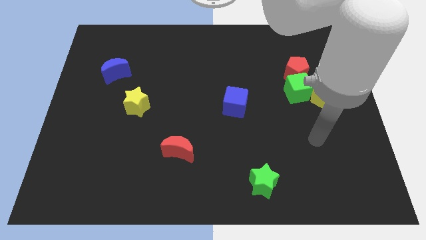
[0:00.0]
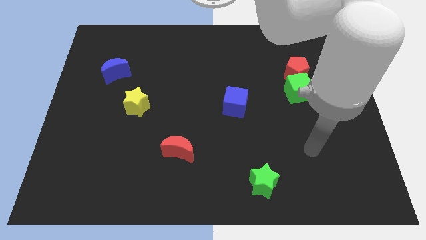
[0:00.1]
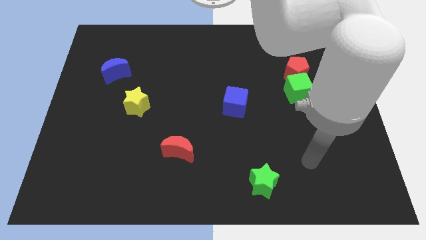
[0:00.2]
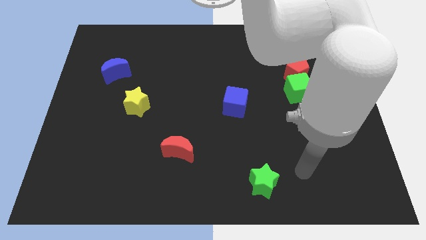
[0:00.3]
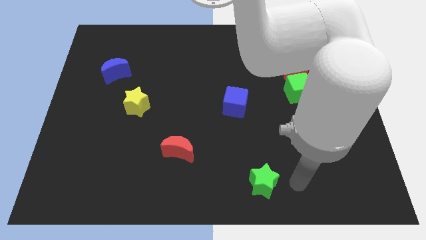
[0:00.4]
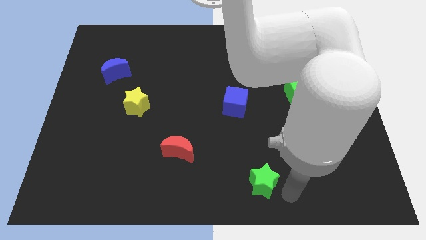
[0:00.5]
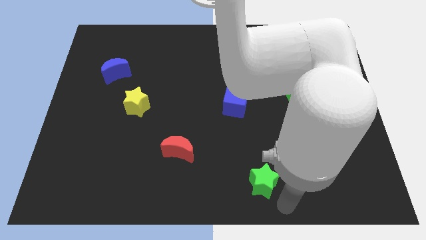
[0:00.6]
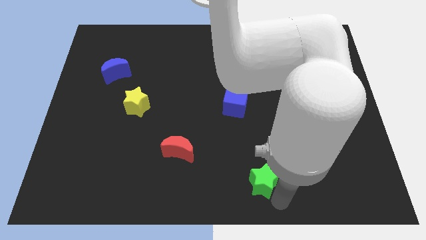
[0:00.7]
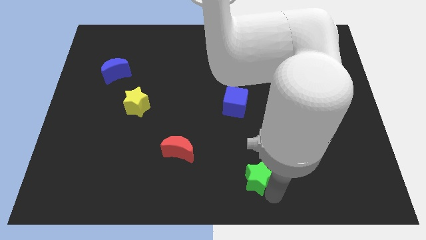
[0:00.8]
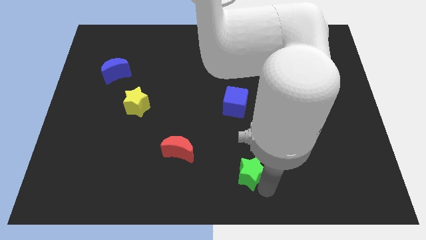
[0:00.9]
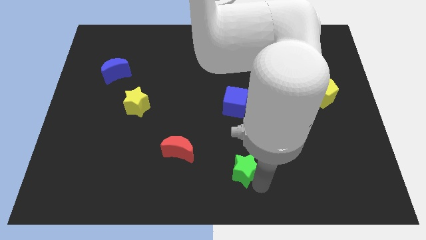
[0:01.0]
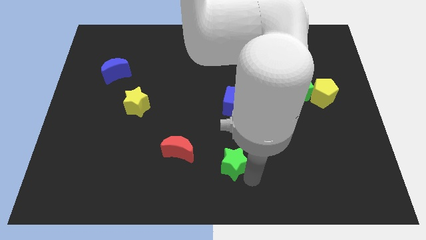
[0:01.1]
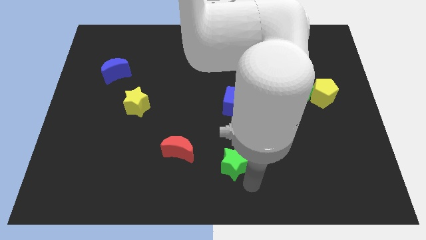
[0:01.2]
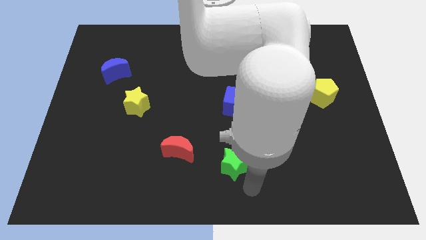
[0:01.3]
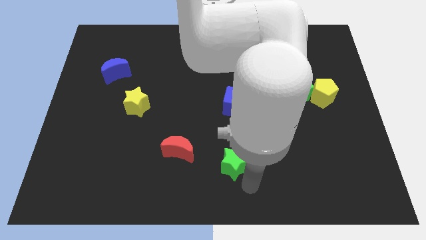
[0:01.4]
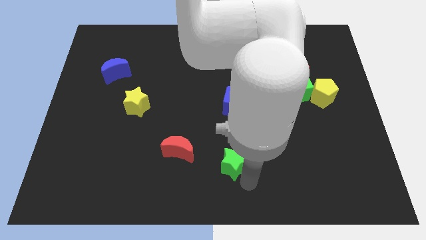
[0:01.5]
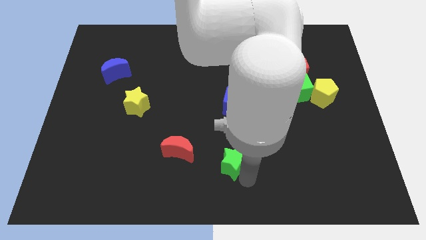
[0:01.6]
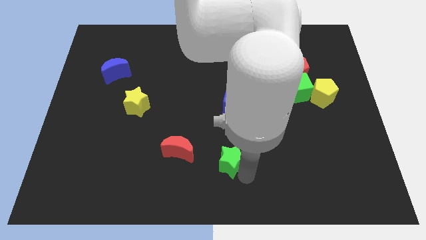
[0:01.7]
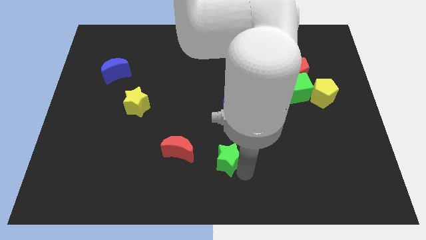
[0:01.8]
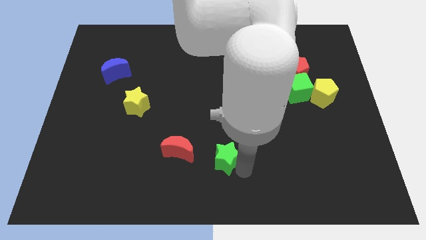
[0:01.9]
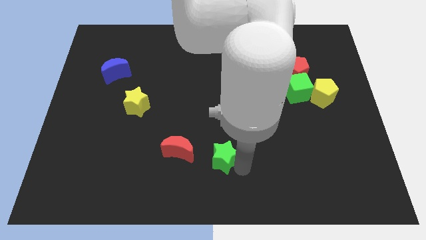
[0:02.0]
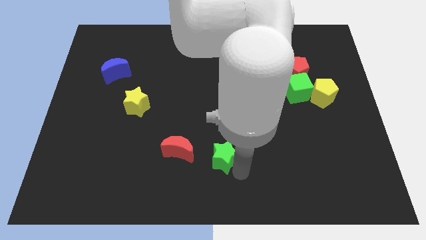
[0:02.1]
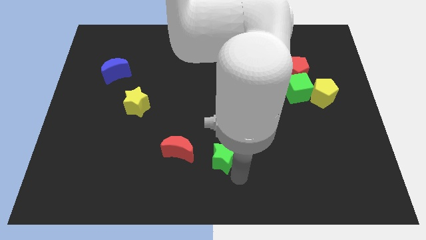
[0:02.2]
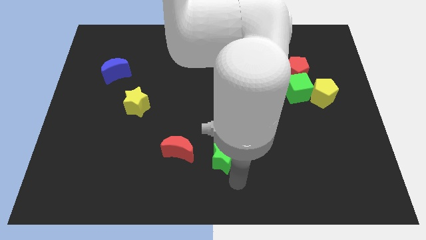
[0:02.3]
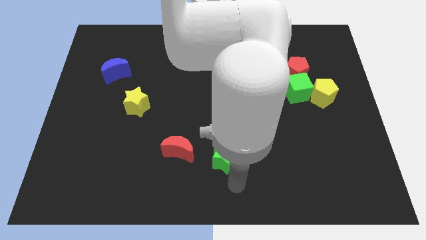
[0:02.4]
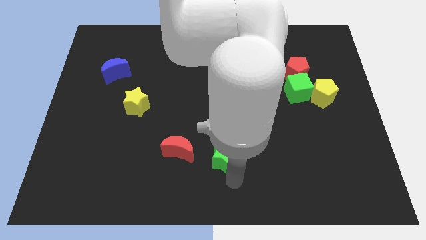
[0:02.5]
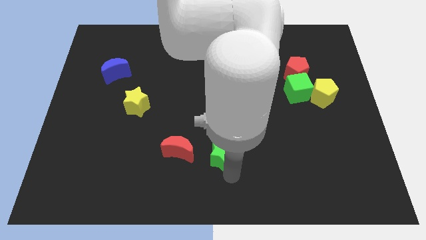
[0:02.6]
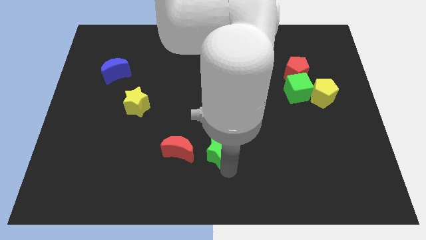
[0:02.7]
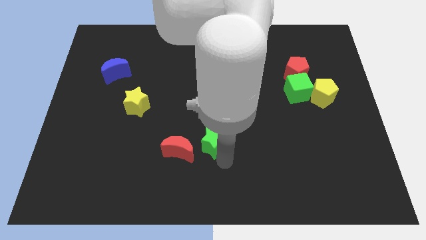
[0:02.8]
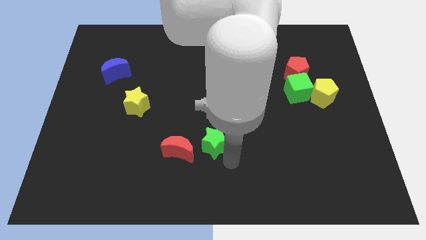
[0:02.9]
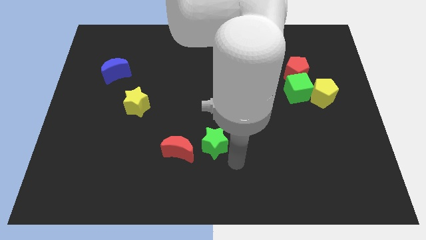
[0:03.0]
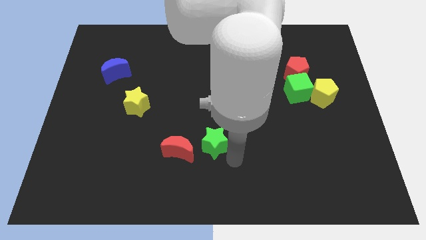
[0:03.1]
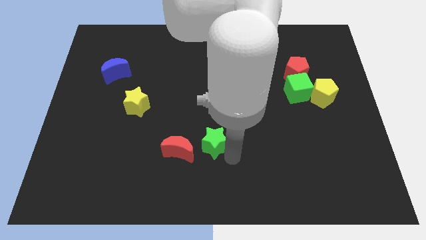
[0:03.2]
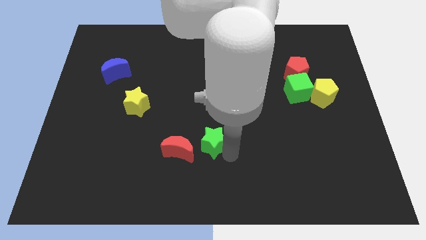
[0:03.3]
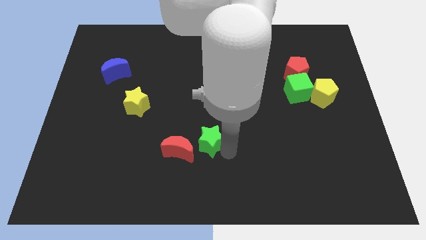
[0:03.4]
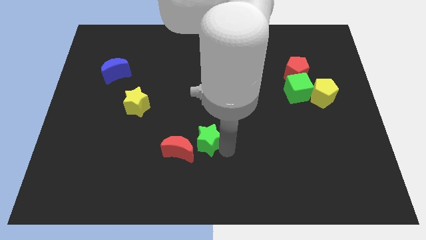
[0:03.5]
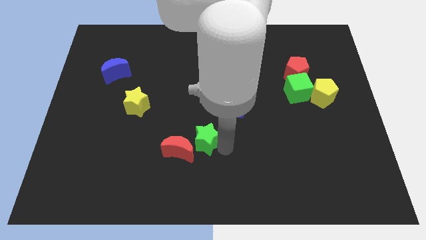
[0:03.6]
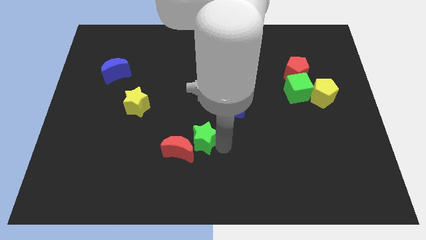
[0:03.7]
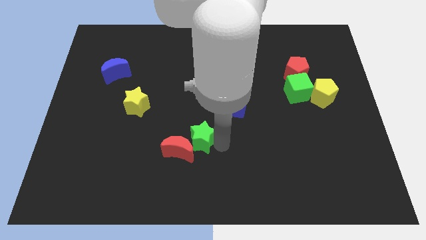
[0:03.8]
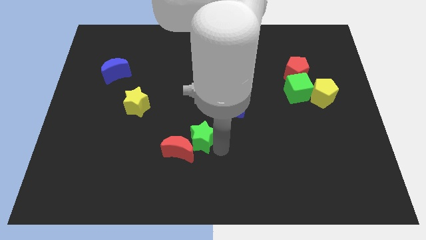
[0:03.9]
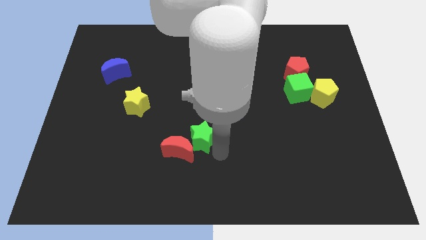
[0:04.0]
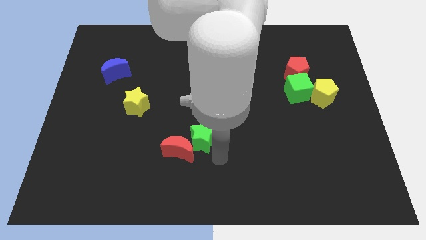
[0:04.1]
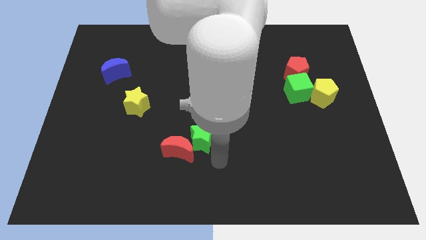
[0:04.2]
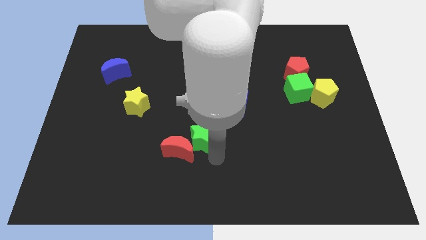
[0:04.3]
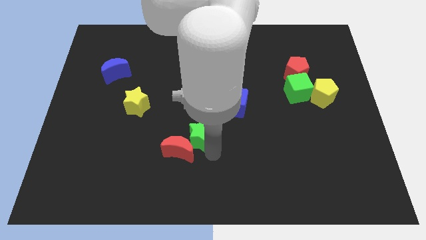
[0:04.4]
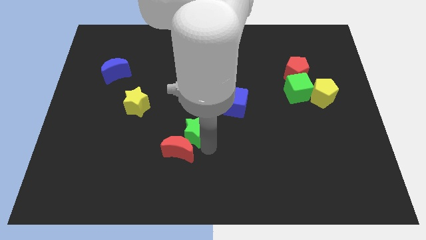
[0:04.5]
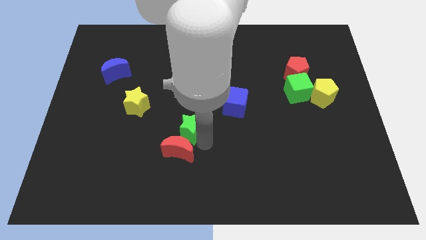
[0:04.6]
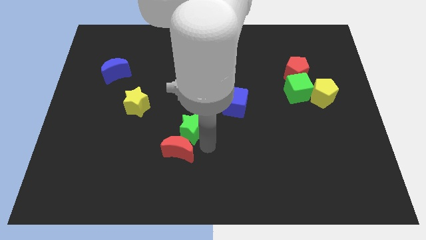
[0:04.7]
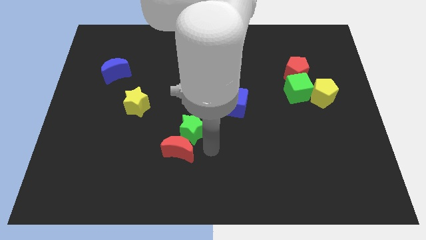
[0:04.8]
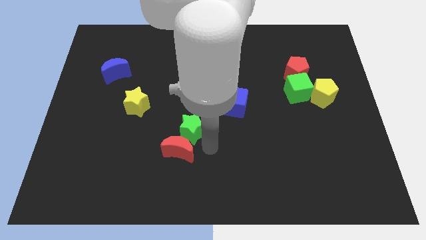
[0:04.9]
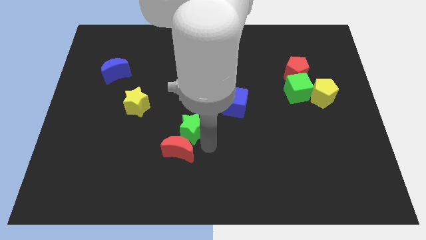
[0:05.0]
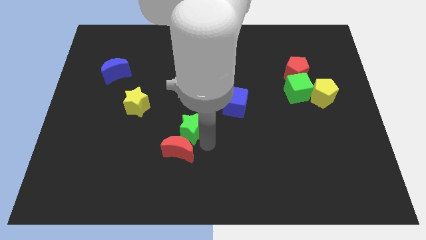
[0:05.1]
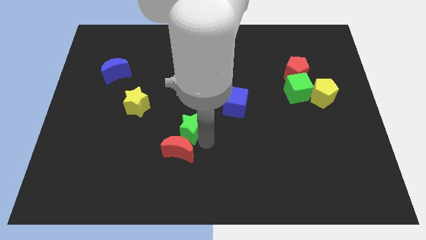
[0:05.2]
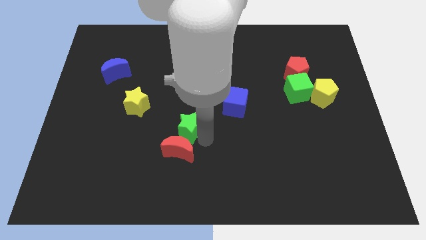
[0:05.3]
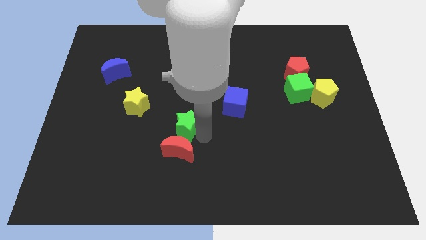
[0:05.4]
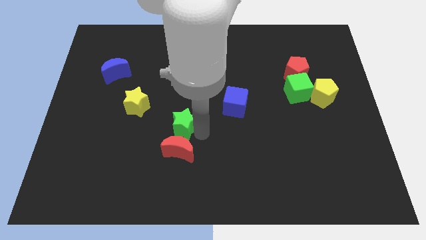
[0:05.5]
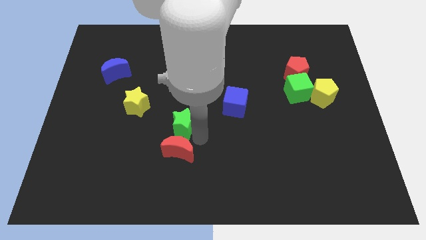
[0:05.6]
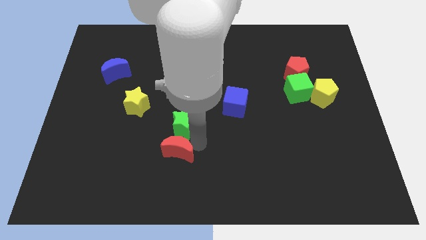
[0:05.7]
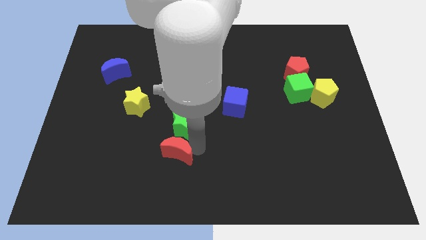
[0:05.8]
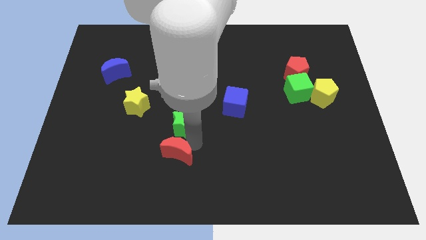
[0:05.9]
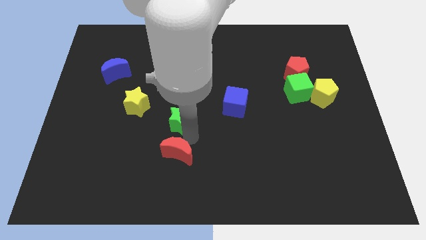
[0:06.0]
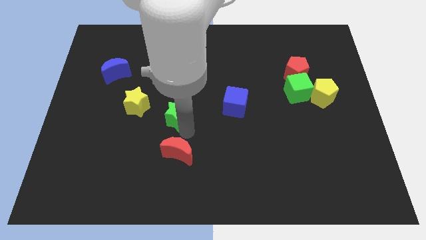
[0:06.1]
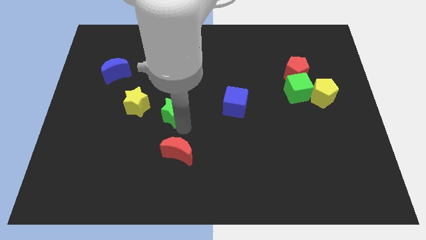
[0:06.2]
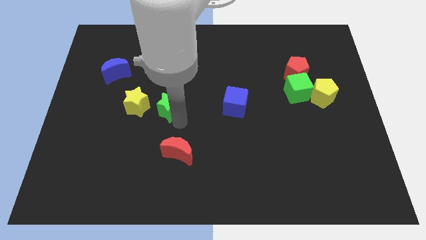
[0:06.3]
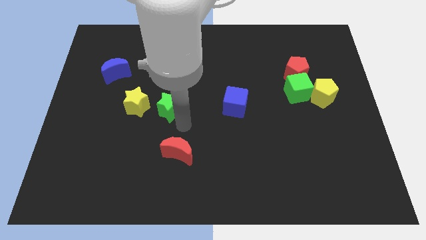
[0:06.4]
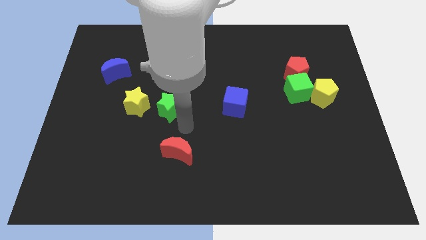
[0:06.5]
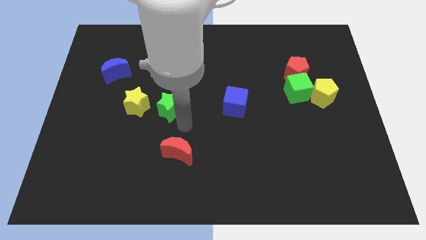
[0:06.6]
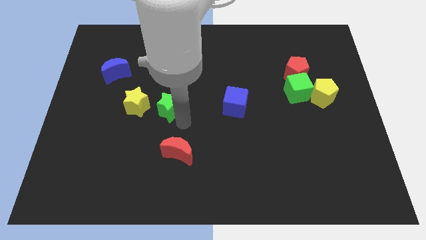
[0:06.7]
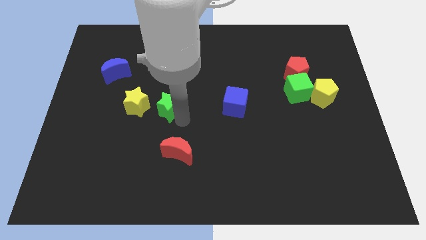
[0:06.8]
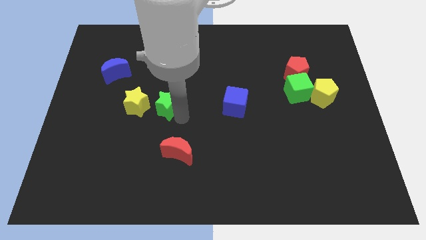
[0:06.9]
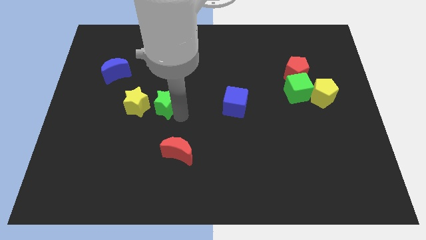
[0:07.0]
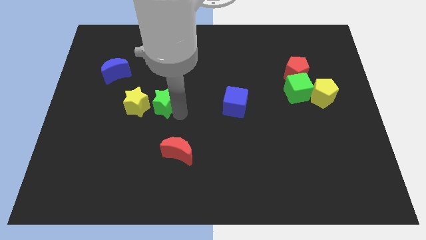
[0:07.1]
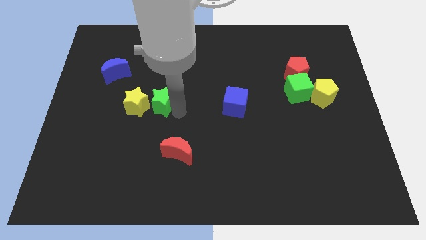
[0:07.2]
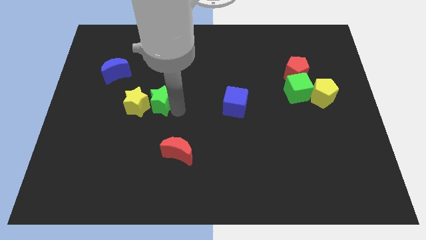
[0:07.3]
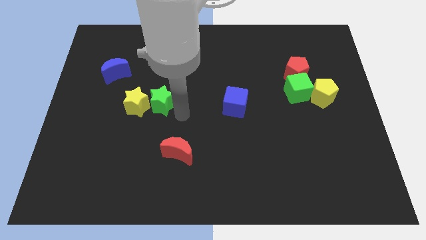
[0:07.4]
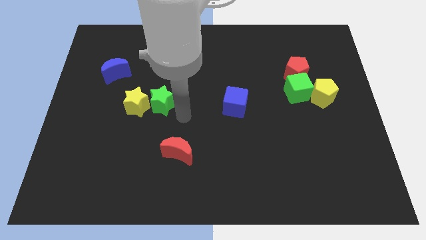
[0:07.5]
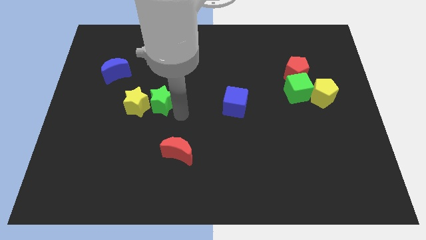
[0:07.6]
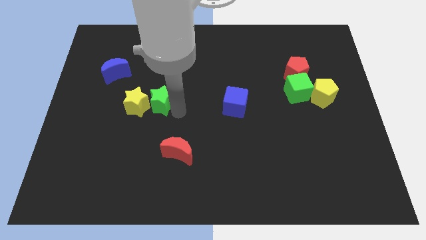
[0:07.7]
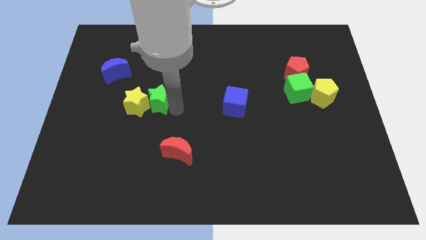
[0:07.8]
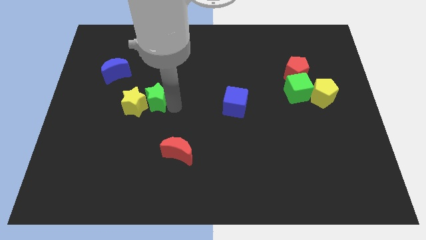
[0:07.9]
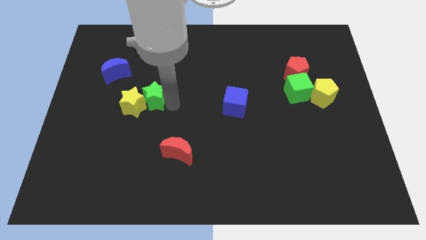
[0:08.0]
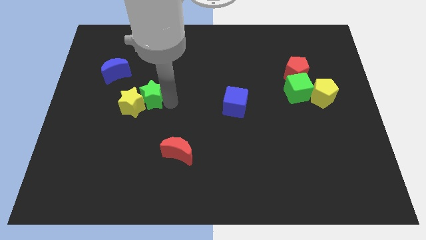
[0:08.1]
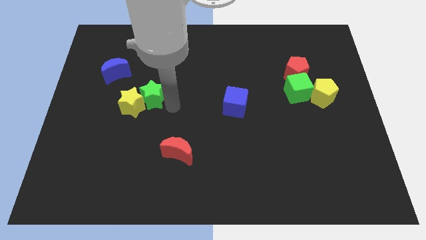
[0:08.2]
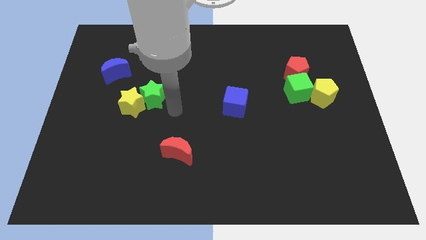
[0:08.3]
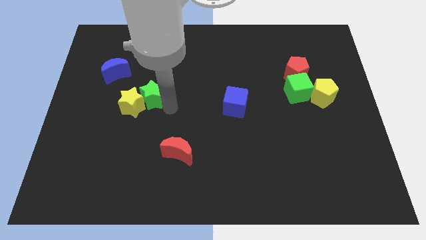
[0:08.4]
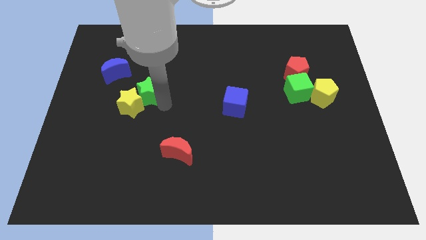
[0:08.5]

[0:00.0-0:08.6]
move the green star diagonally down and to the right of the blue moon
